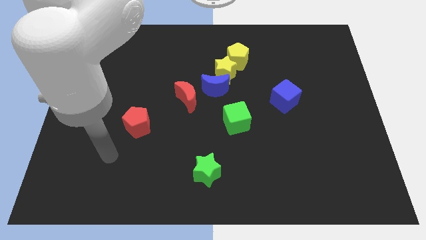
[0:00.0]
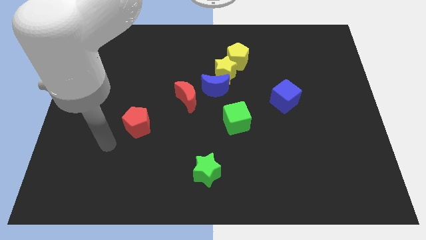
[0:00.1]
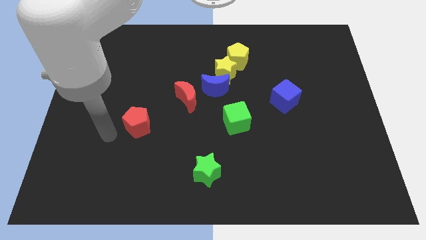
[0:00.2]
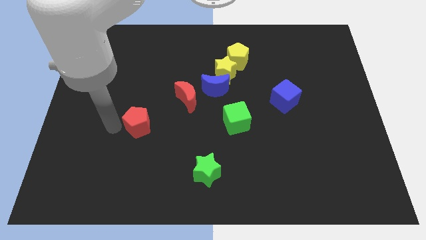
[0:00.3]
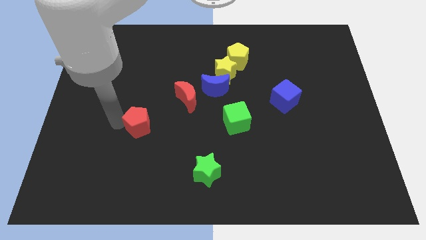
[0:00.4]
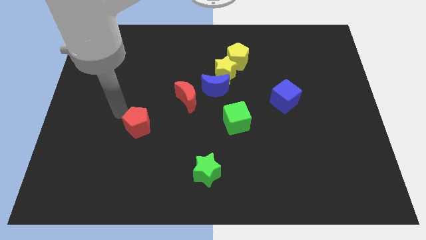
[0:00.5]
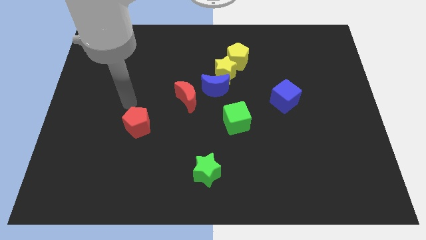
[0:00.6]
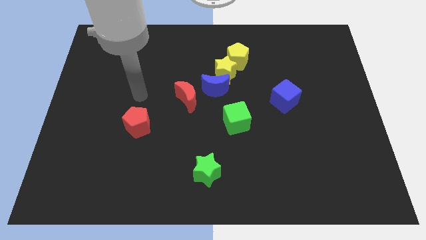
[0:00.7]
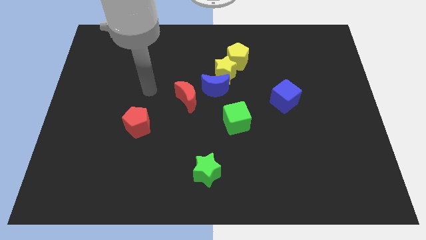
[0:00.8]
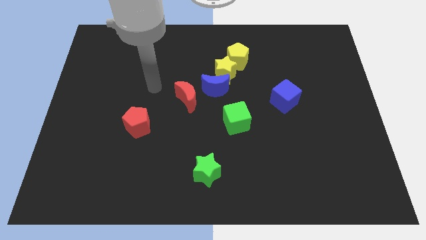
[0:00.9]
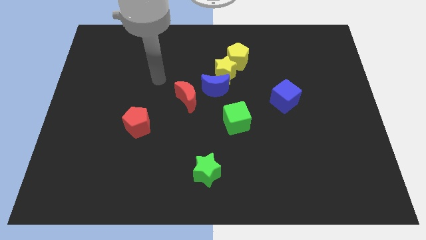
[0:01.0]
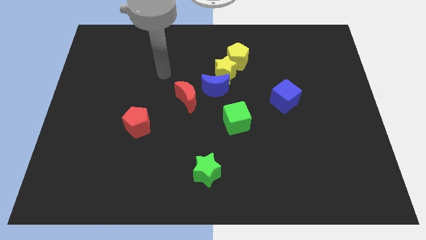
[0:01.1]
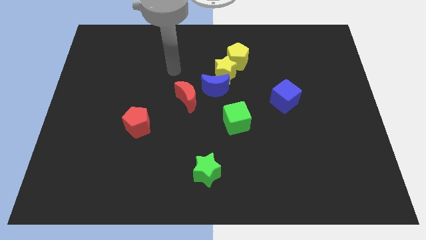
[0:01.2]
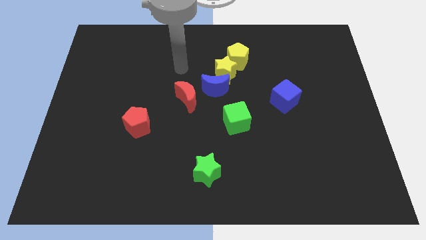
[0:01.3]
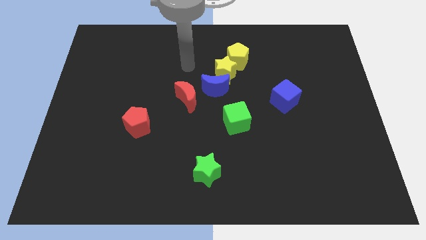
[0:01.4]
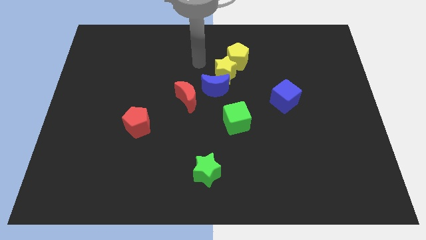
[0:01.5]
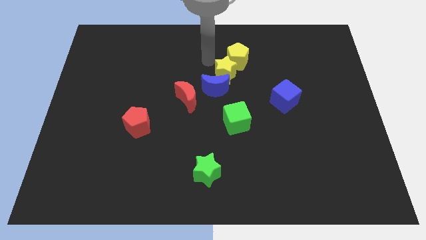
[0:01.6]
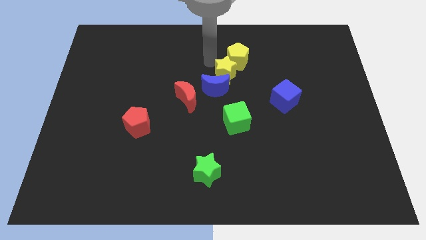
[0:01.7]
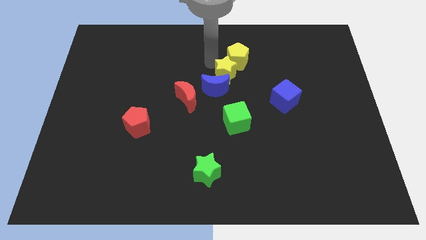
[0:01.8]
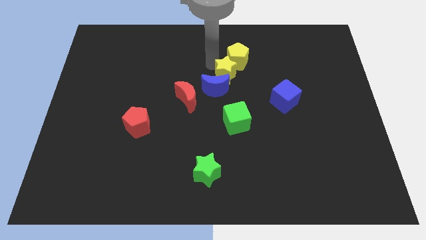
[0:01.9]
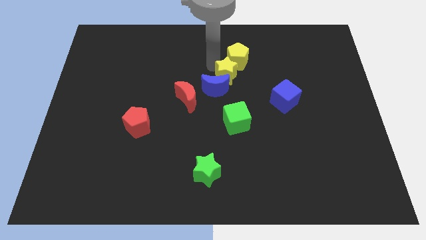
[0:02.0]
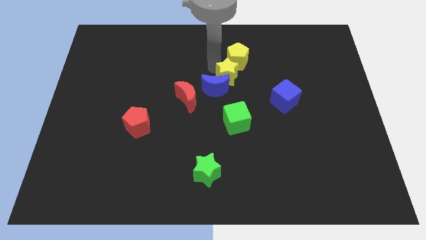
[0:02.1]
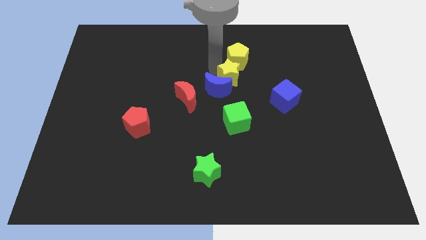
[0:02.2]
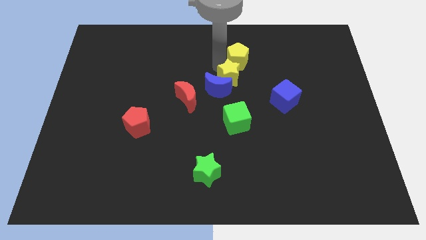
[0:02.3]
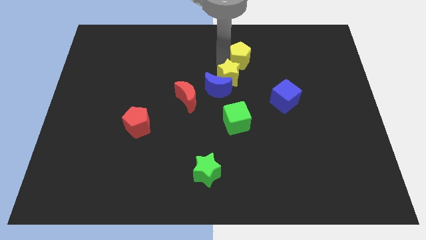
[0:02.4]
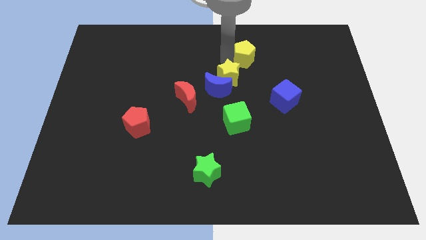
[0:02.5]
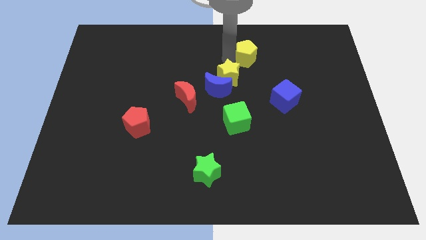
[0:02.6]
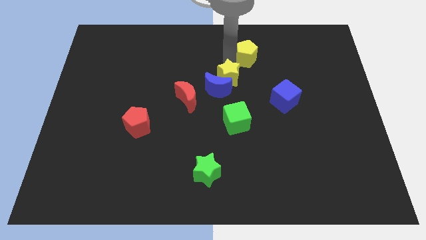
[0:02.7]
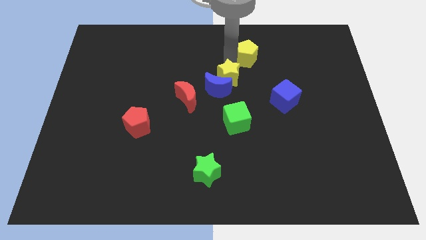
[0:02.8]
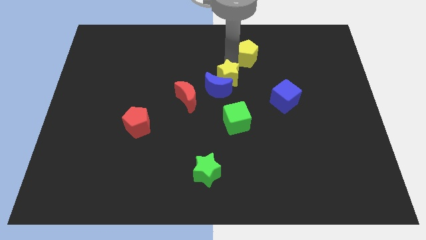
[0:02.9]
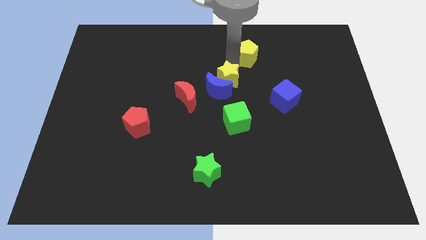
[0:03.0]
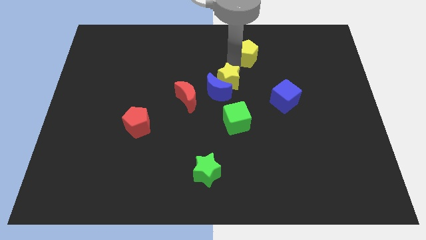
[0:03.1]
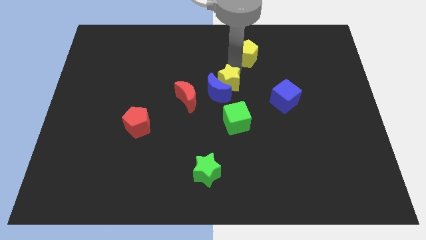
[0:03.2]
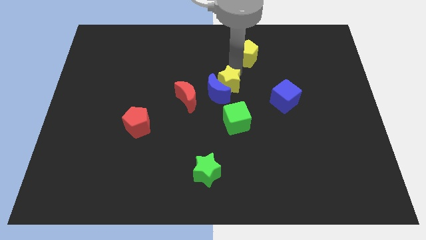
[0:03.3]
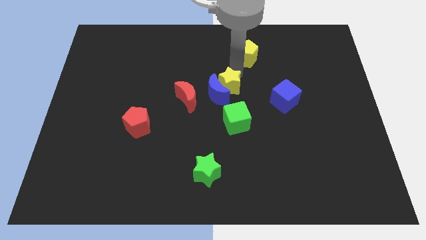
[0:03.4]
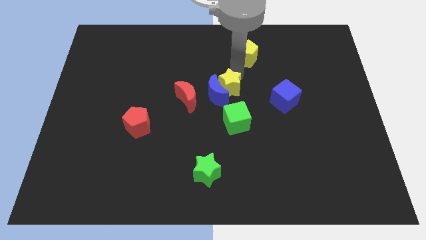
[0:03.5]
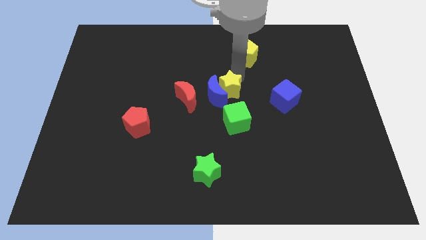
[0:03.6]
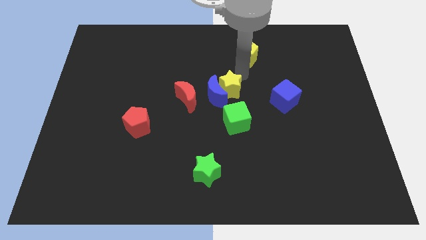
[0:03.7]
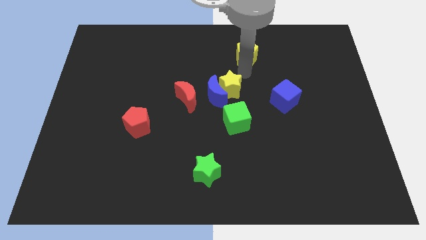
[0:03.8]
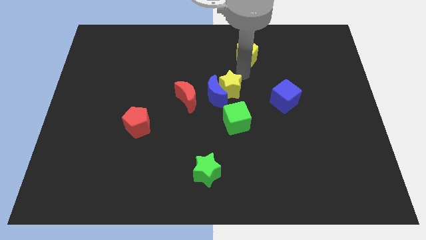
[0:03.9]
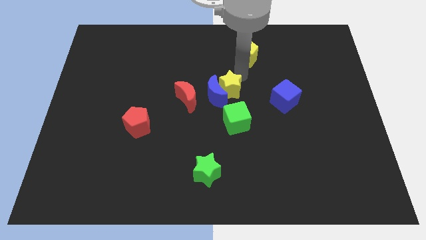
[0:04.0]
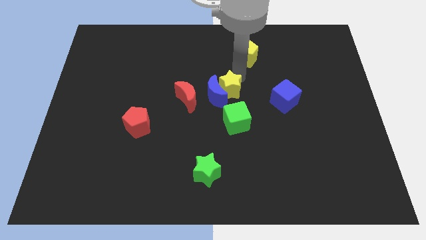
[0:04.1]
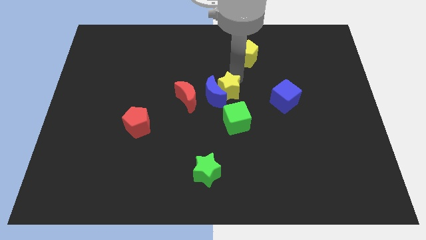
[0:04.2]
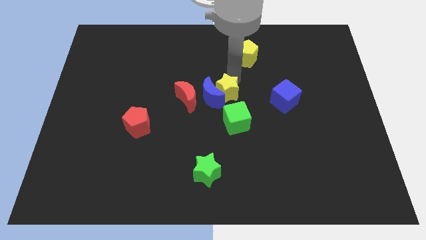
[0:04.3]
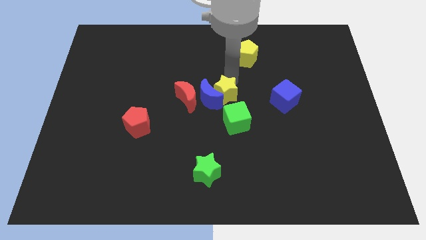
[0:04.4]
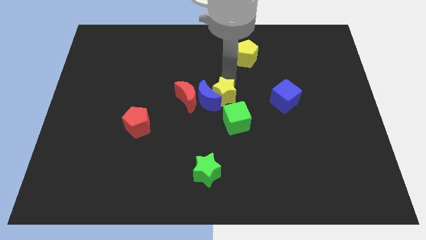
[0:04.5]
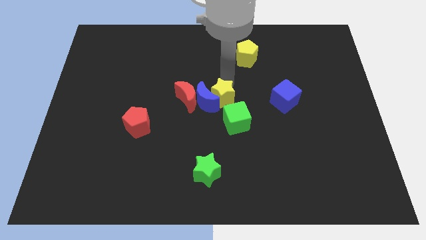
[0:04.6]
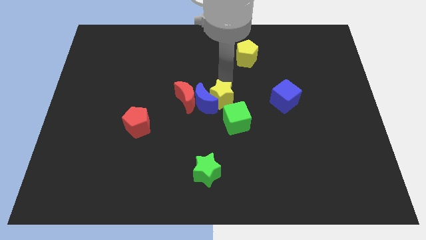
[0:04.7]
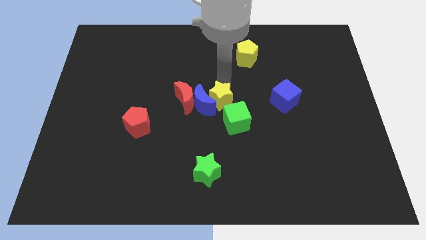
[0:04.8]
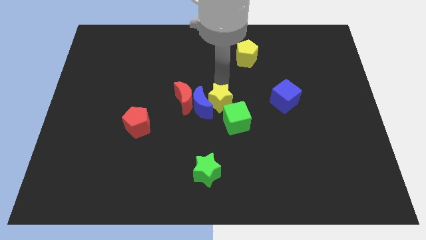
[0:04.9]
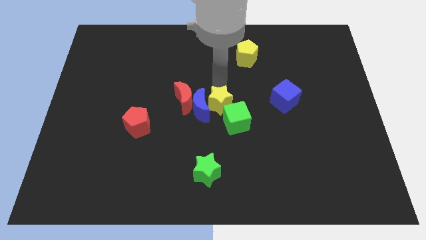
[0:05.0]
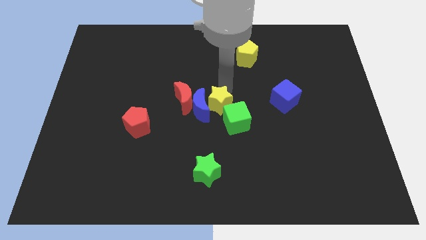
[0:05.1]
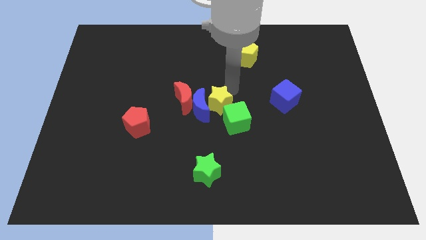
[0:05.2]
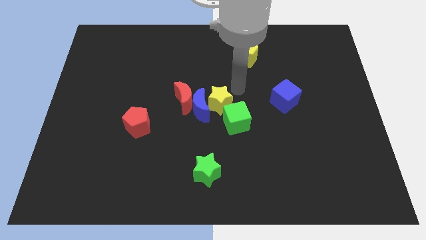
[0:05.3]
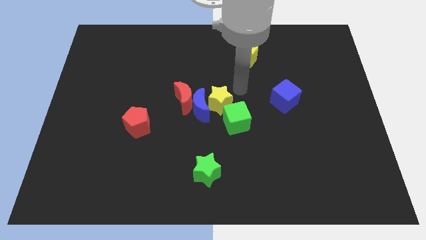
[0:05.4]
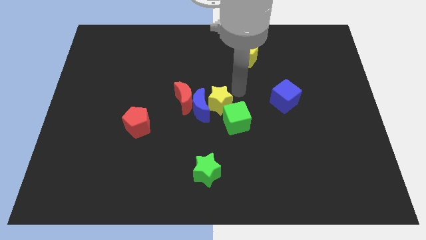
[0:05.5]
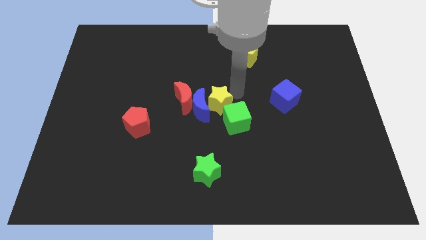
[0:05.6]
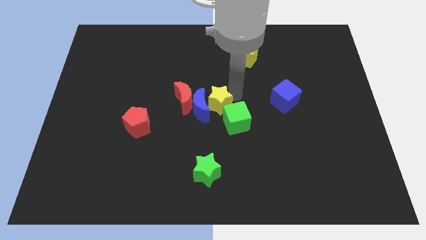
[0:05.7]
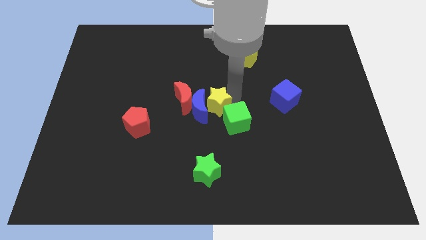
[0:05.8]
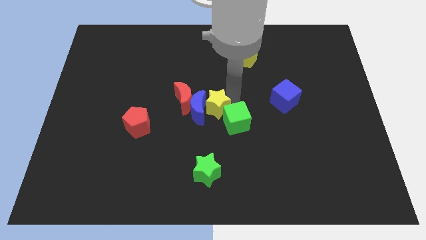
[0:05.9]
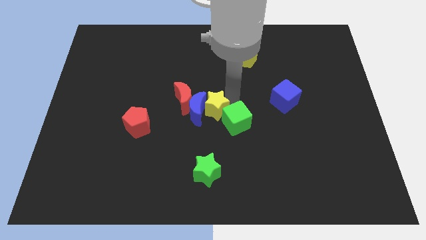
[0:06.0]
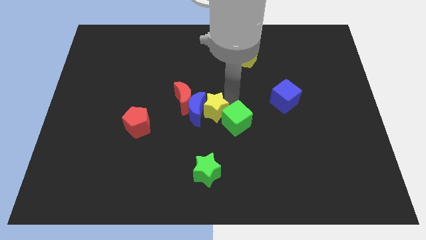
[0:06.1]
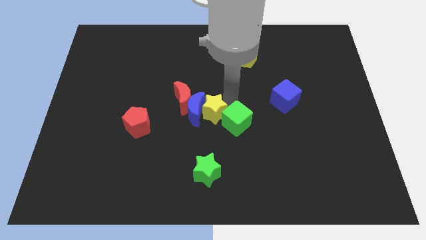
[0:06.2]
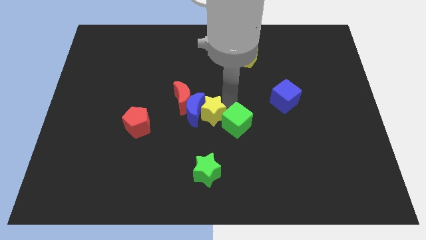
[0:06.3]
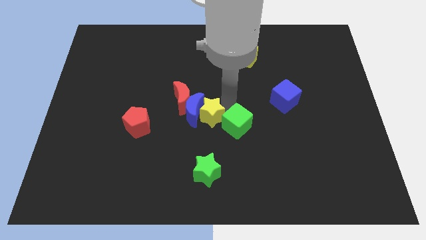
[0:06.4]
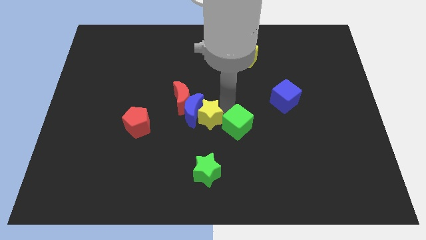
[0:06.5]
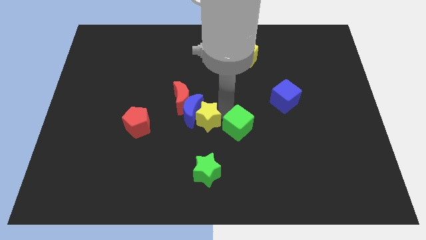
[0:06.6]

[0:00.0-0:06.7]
push the yellow star to the right of the red pentagon

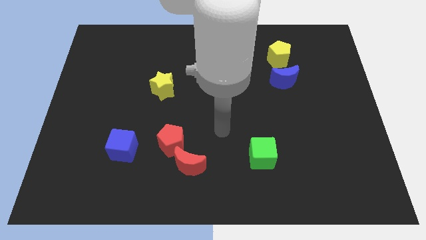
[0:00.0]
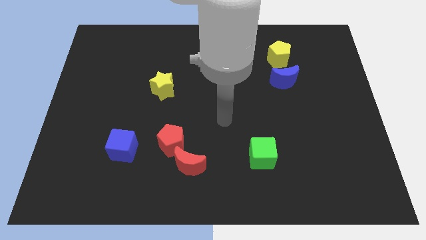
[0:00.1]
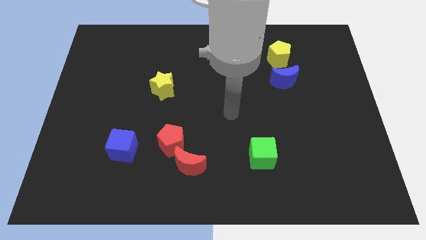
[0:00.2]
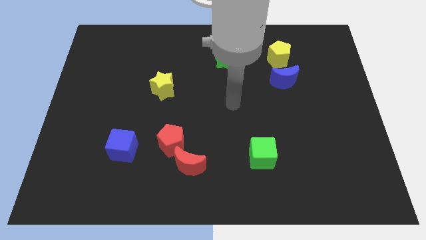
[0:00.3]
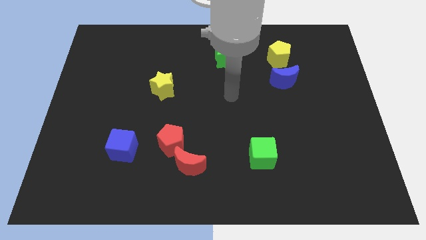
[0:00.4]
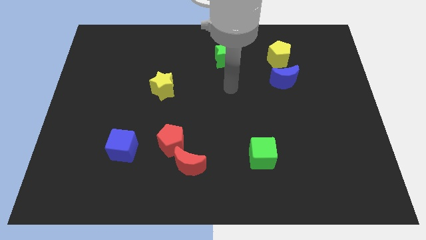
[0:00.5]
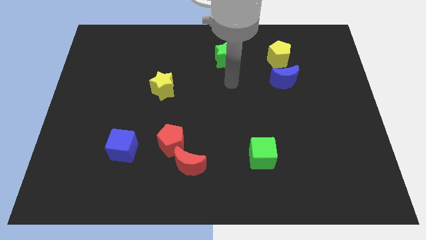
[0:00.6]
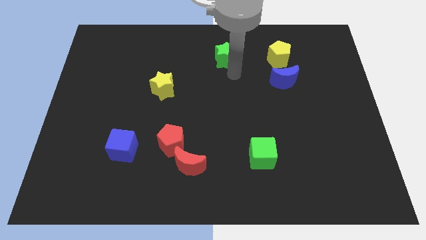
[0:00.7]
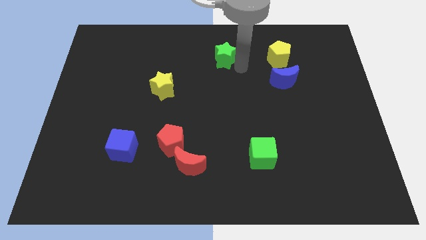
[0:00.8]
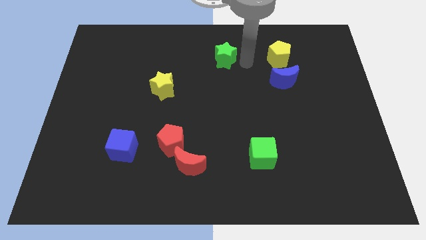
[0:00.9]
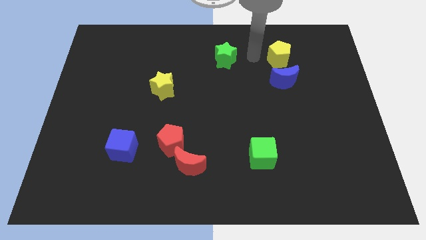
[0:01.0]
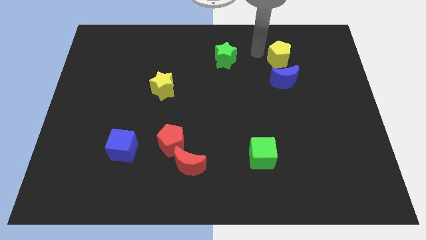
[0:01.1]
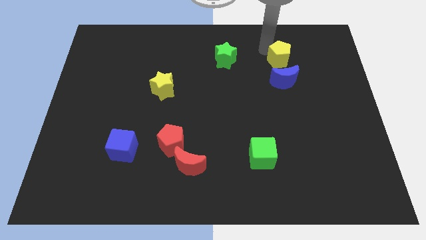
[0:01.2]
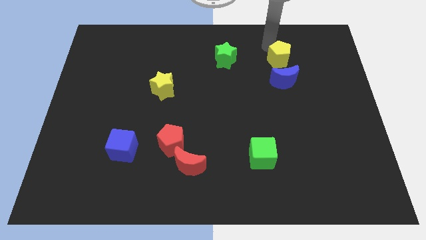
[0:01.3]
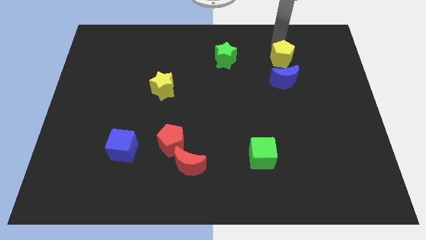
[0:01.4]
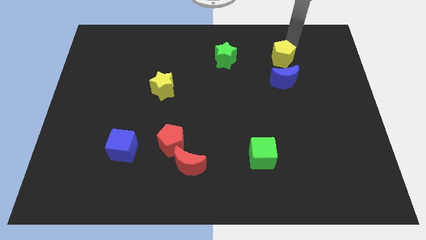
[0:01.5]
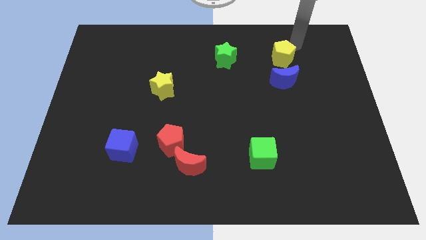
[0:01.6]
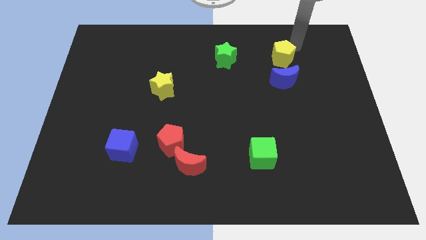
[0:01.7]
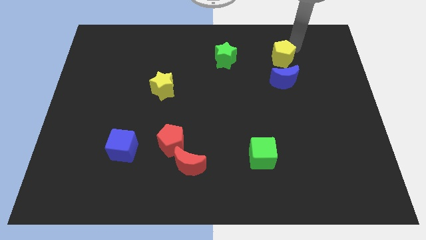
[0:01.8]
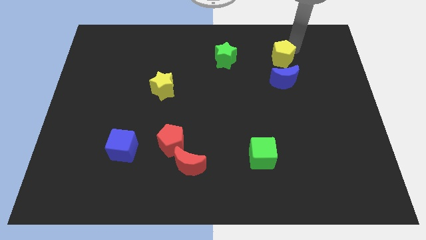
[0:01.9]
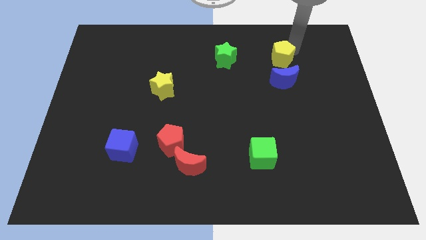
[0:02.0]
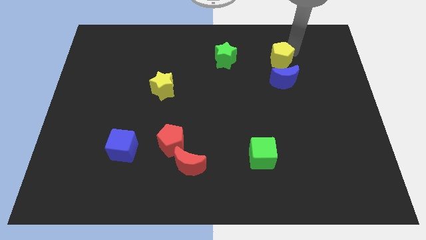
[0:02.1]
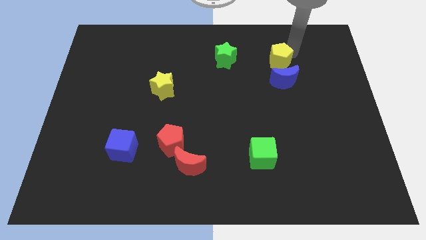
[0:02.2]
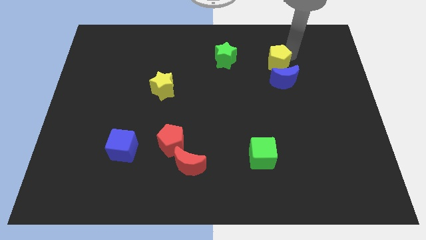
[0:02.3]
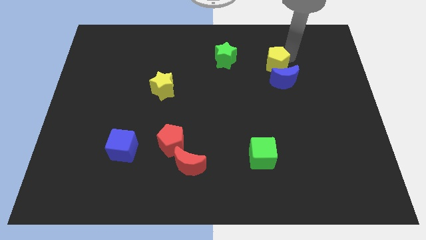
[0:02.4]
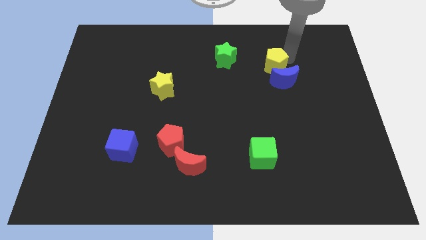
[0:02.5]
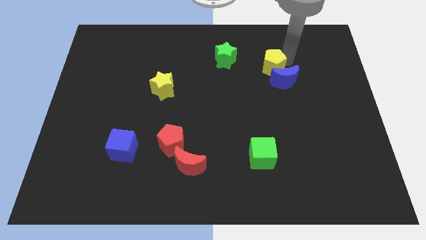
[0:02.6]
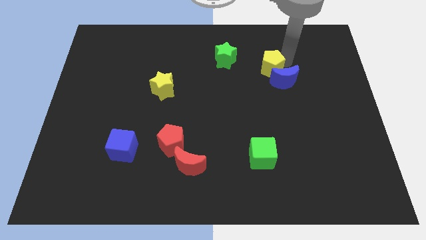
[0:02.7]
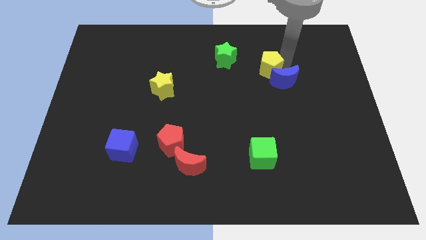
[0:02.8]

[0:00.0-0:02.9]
put the yellow pentagon to the left side of the blue moon
